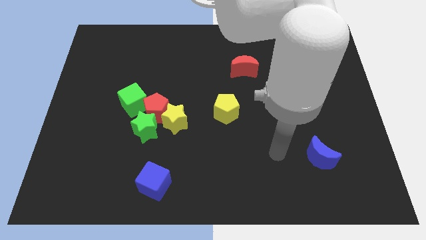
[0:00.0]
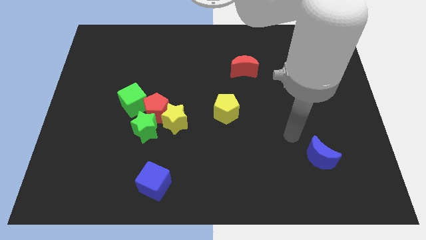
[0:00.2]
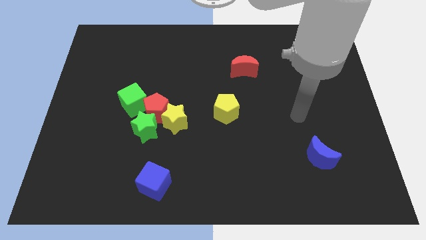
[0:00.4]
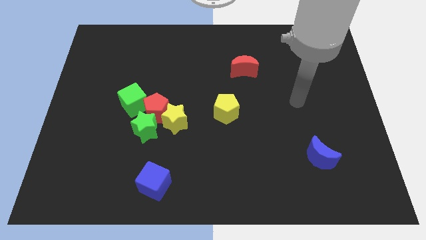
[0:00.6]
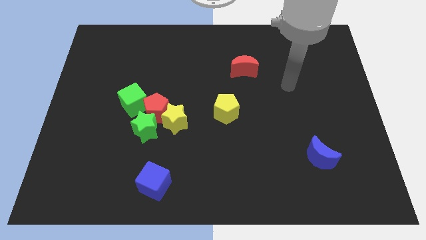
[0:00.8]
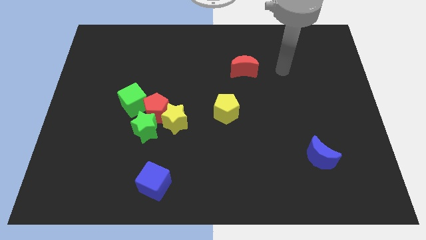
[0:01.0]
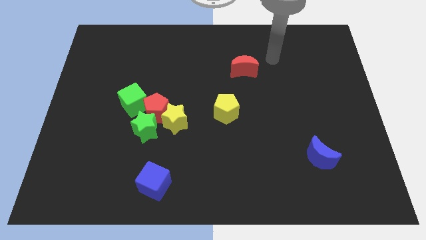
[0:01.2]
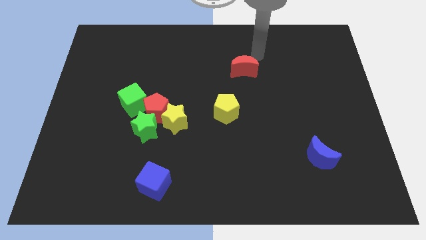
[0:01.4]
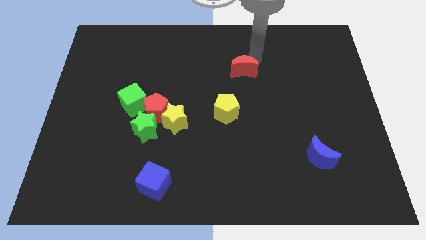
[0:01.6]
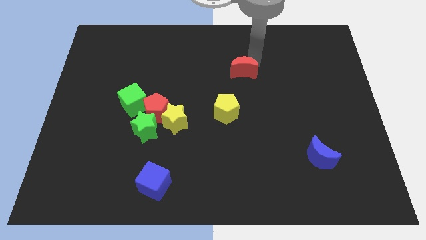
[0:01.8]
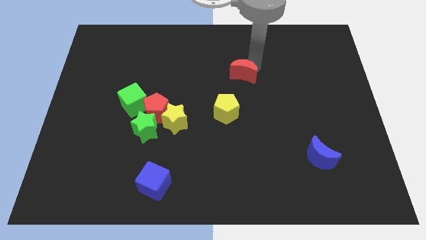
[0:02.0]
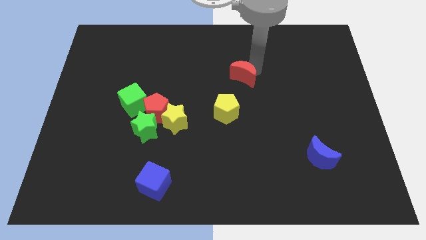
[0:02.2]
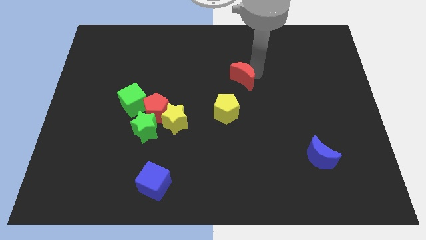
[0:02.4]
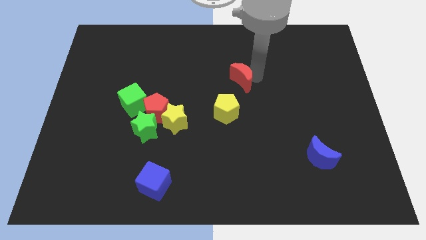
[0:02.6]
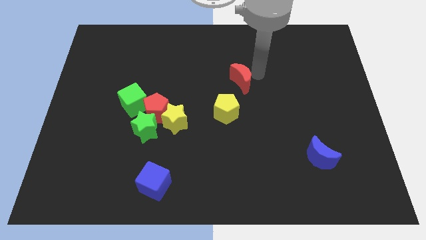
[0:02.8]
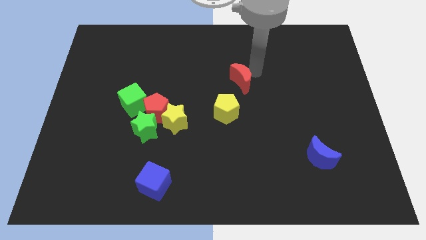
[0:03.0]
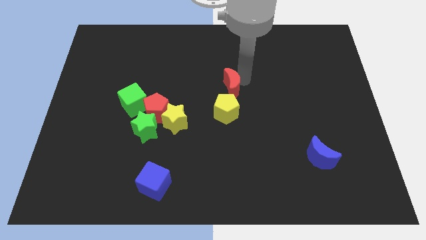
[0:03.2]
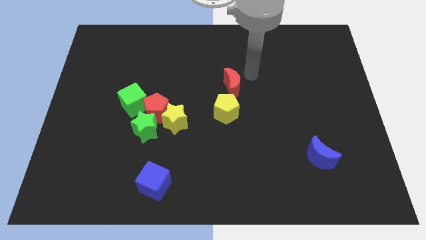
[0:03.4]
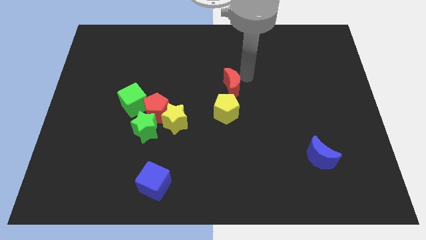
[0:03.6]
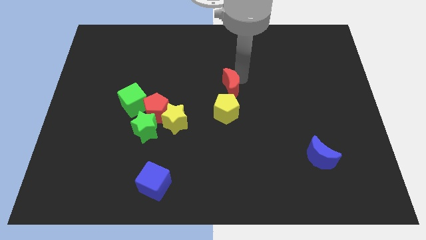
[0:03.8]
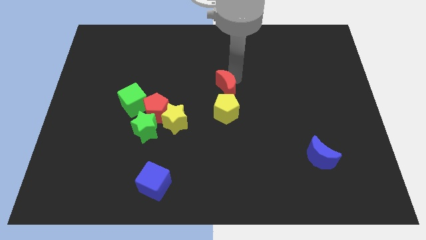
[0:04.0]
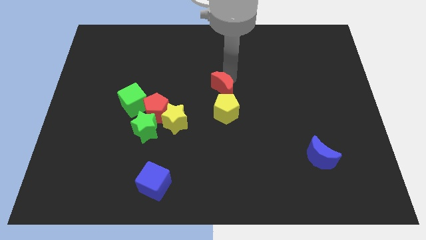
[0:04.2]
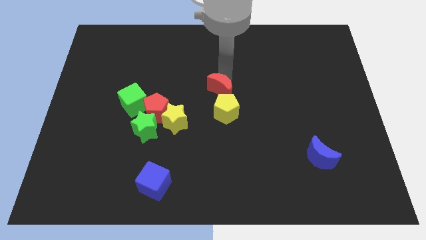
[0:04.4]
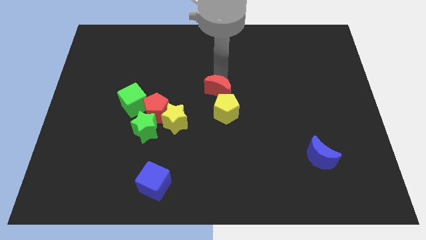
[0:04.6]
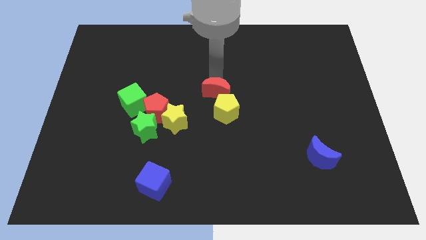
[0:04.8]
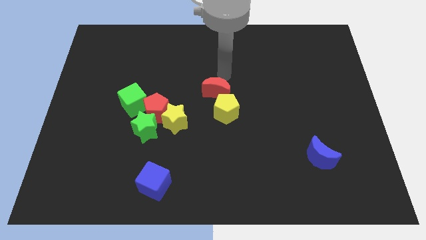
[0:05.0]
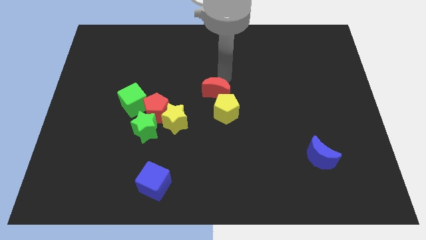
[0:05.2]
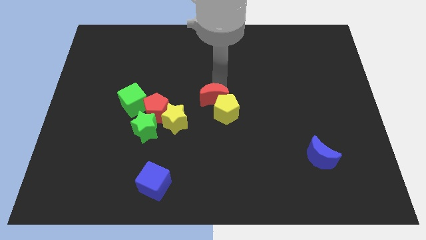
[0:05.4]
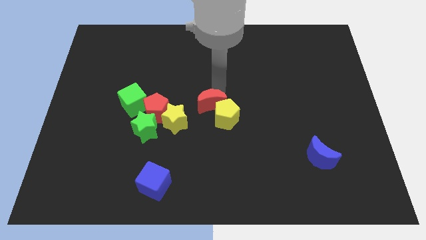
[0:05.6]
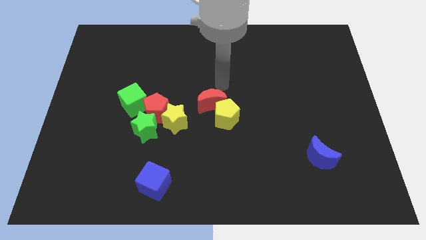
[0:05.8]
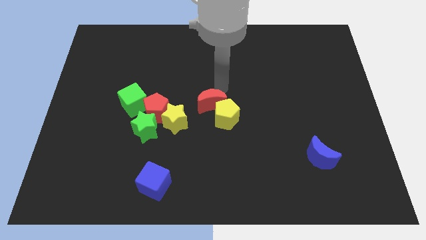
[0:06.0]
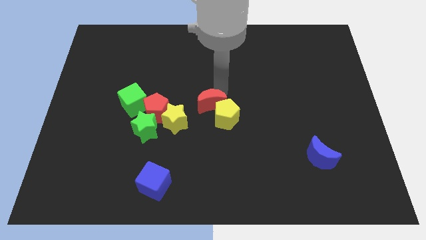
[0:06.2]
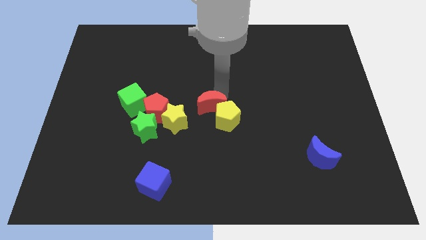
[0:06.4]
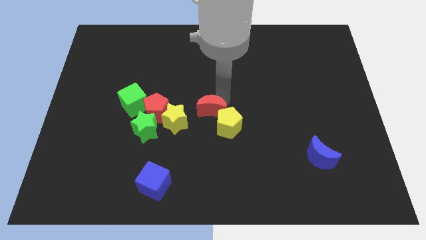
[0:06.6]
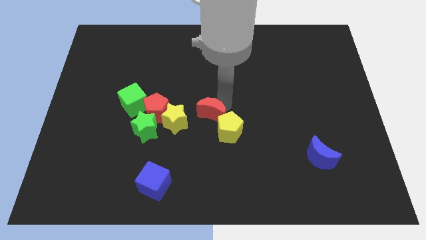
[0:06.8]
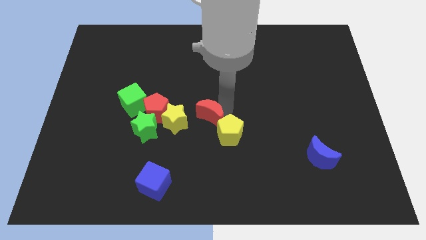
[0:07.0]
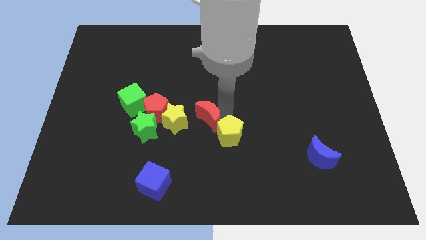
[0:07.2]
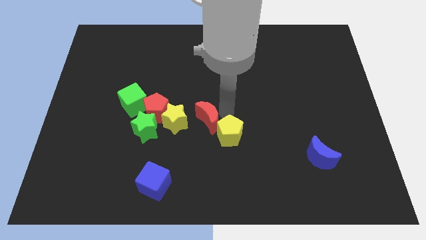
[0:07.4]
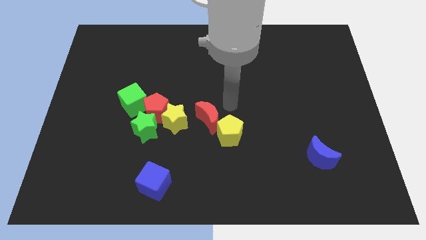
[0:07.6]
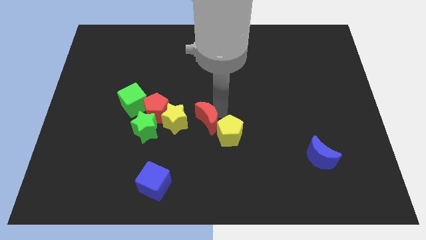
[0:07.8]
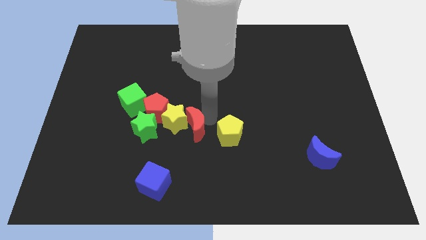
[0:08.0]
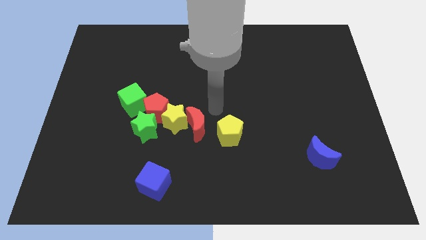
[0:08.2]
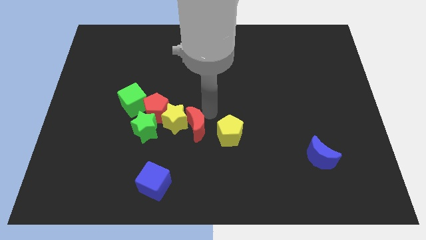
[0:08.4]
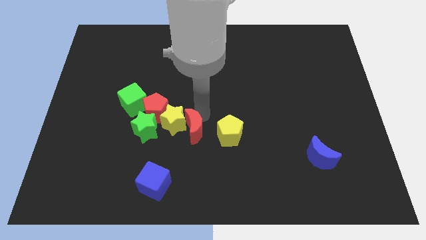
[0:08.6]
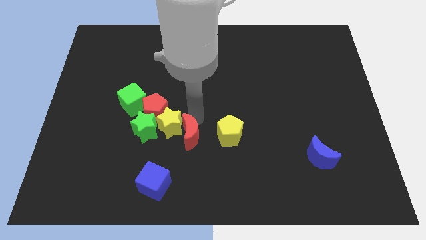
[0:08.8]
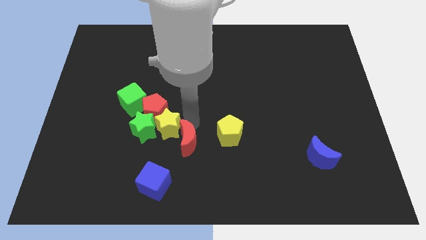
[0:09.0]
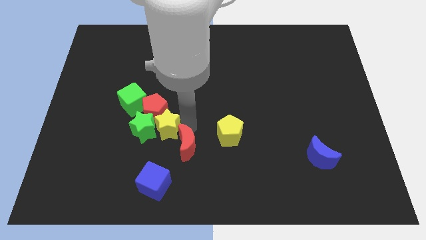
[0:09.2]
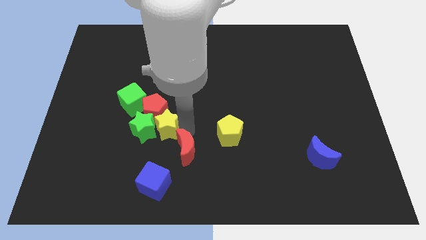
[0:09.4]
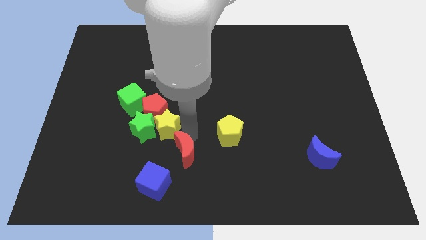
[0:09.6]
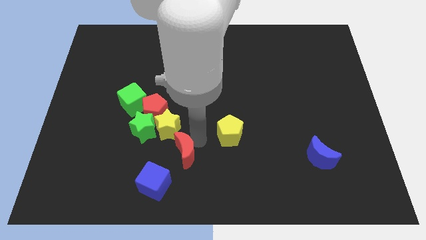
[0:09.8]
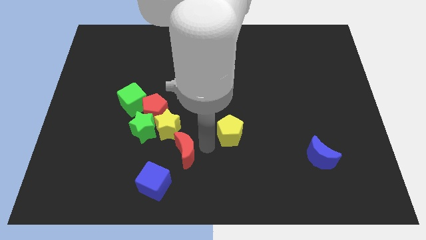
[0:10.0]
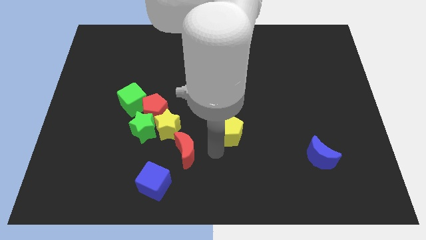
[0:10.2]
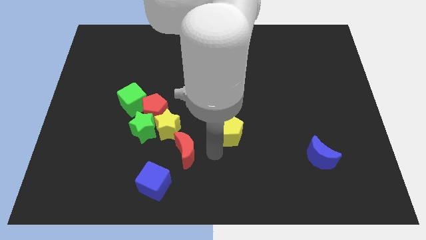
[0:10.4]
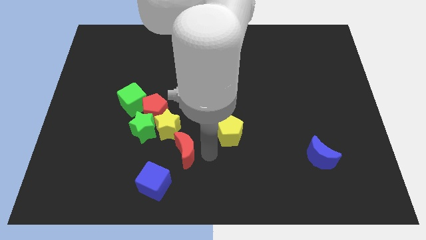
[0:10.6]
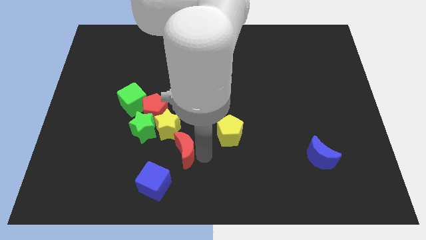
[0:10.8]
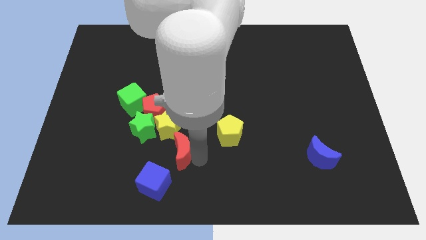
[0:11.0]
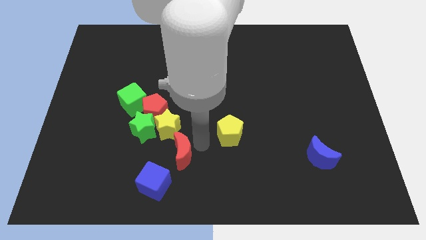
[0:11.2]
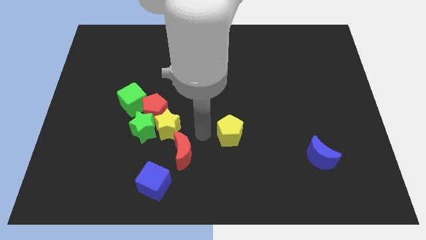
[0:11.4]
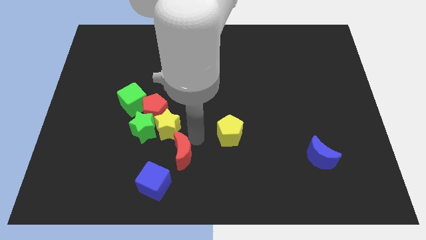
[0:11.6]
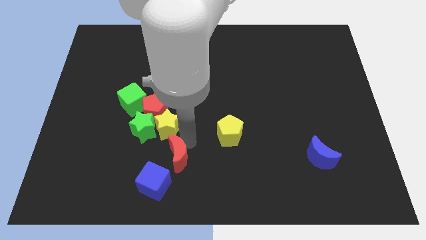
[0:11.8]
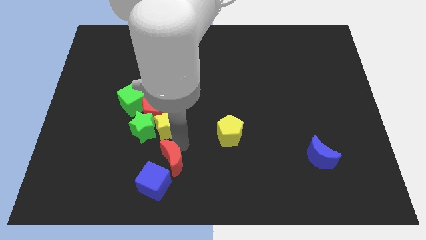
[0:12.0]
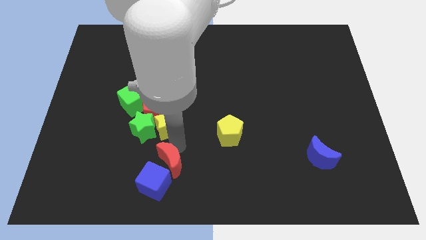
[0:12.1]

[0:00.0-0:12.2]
push the red moon next to the blue cube
